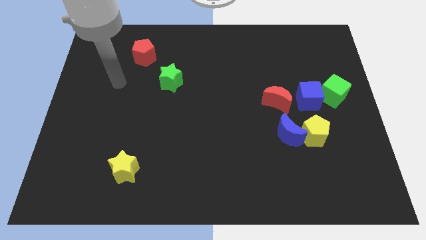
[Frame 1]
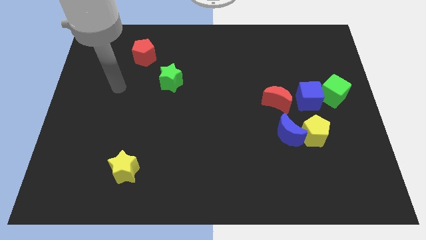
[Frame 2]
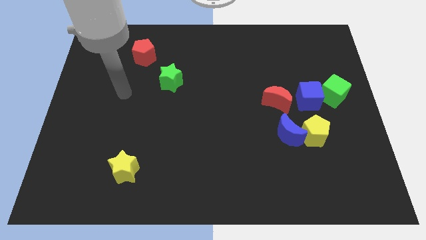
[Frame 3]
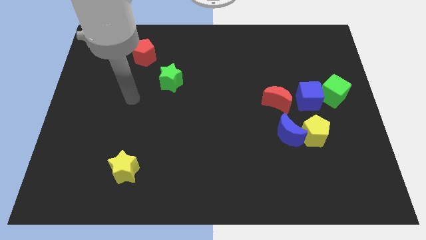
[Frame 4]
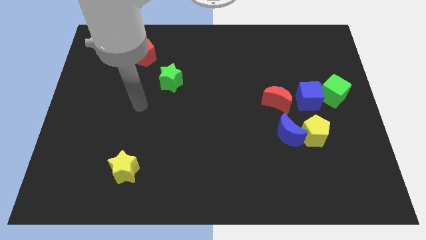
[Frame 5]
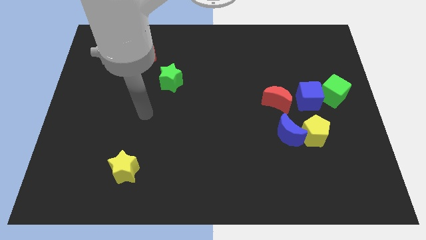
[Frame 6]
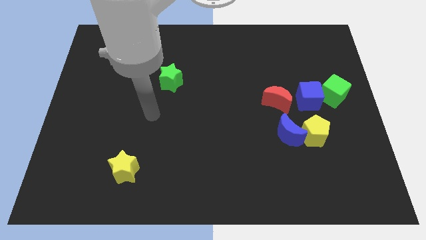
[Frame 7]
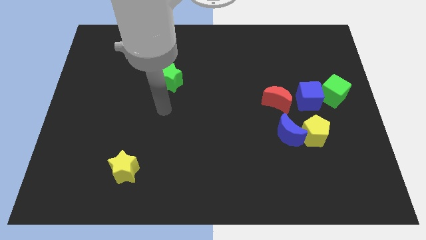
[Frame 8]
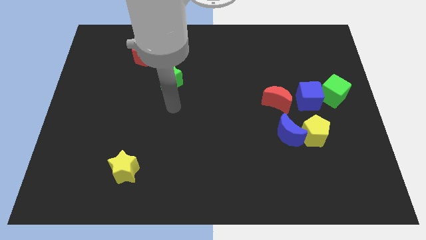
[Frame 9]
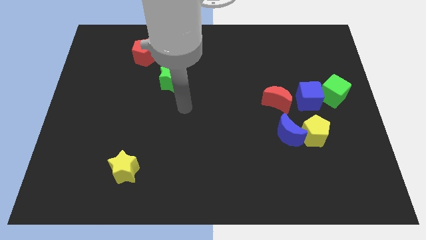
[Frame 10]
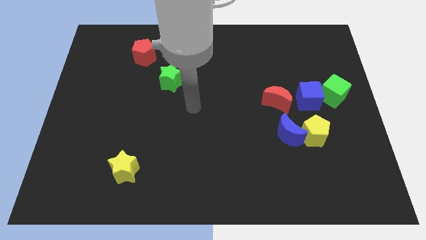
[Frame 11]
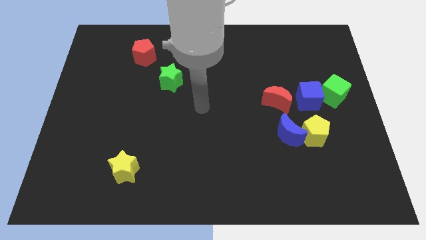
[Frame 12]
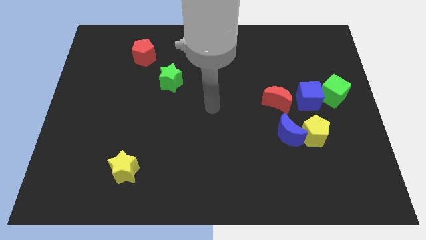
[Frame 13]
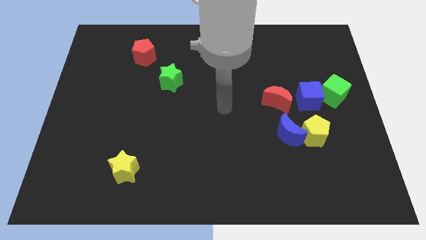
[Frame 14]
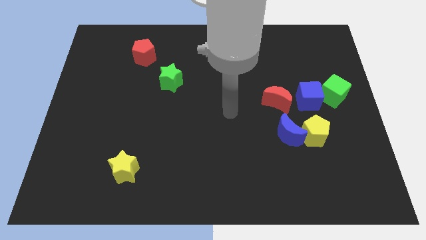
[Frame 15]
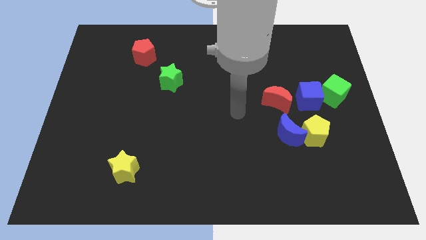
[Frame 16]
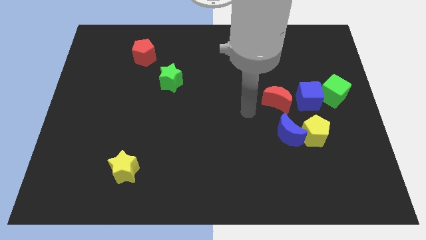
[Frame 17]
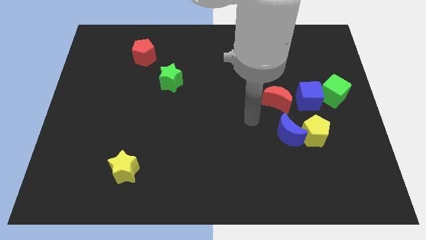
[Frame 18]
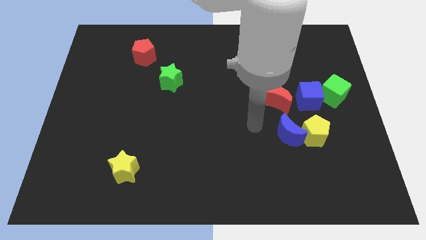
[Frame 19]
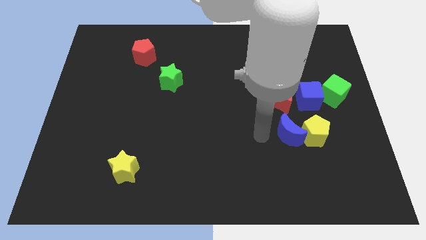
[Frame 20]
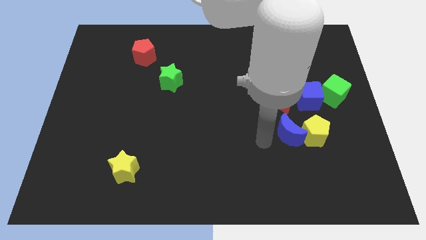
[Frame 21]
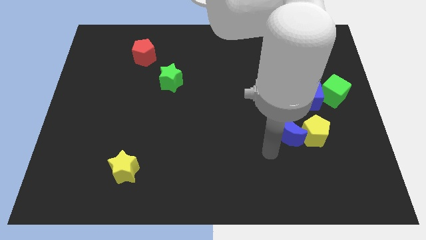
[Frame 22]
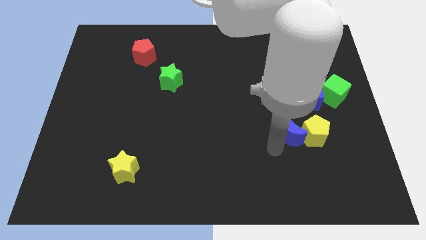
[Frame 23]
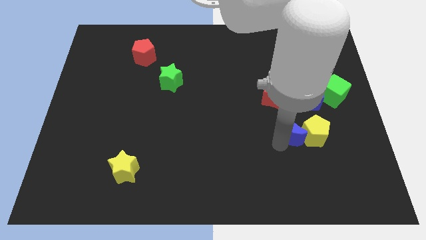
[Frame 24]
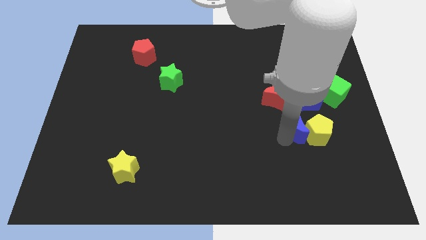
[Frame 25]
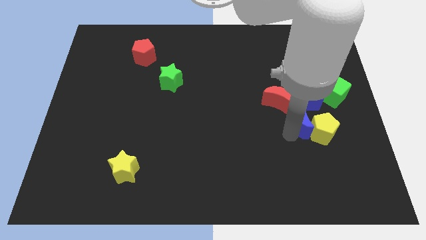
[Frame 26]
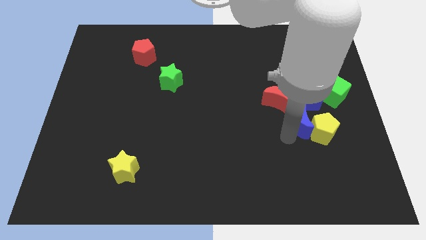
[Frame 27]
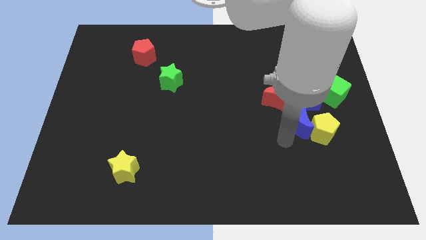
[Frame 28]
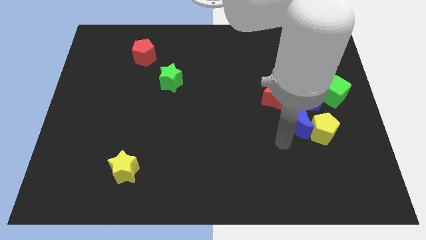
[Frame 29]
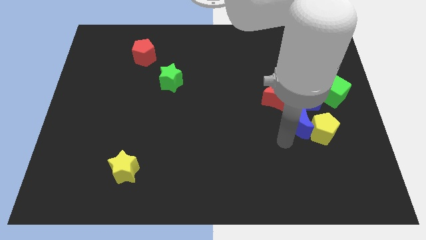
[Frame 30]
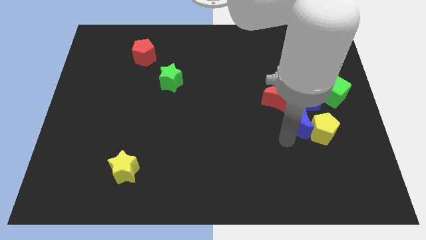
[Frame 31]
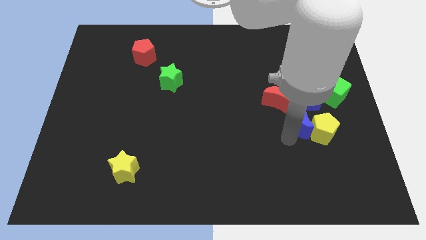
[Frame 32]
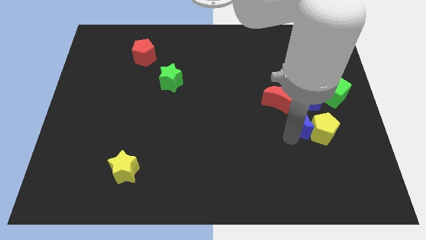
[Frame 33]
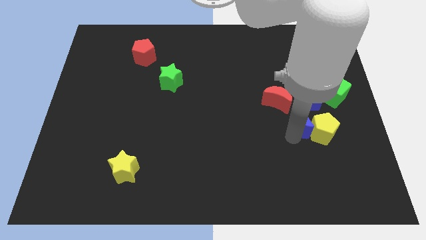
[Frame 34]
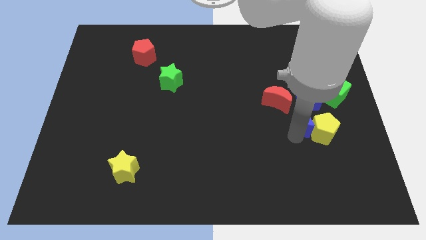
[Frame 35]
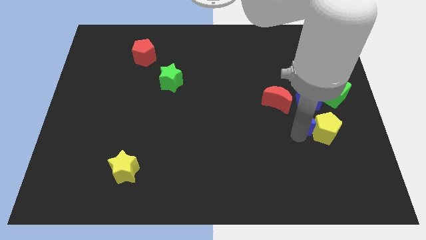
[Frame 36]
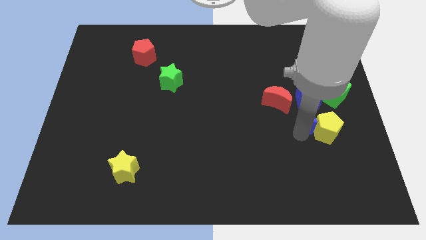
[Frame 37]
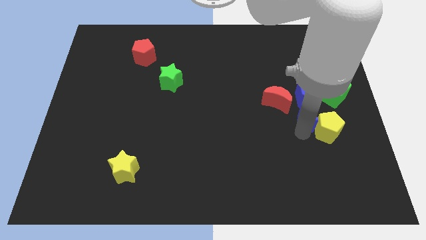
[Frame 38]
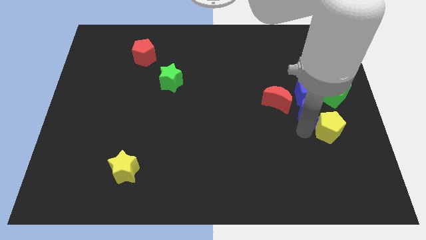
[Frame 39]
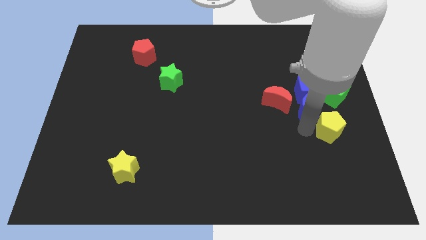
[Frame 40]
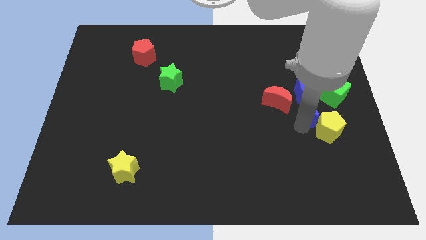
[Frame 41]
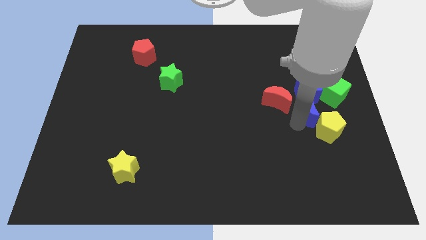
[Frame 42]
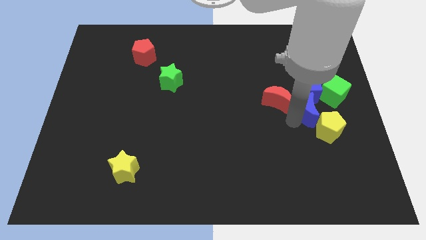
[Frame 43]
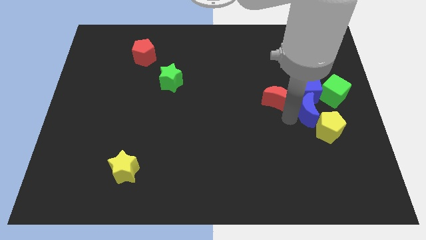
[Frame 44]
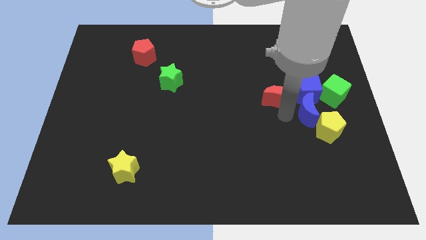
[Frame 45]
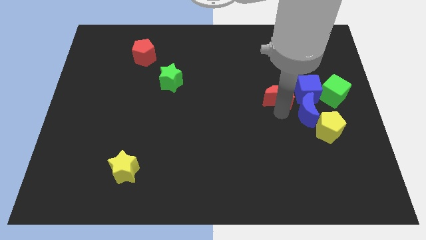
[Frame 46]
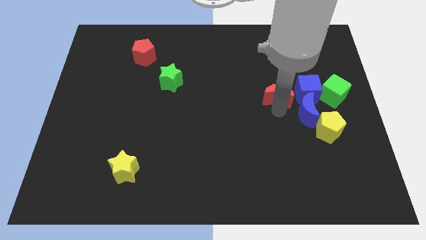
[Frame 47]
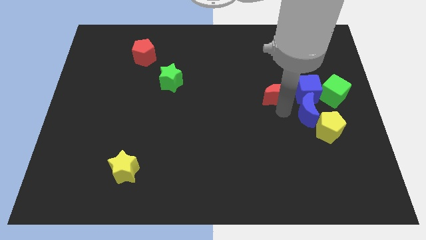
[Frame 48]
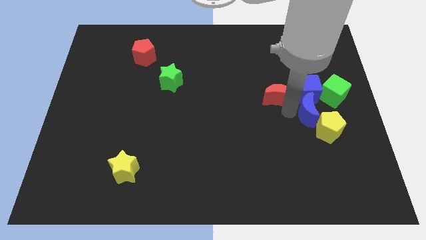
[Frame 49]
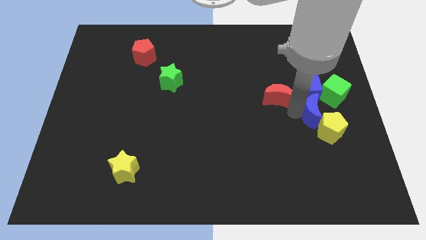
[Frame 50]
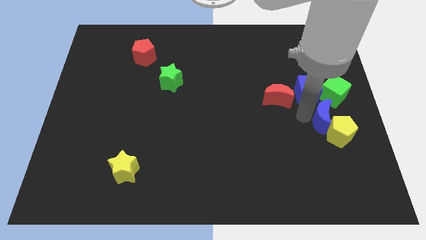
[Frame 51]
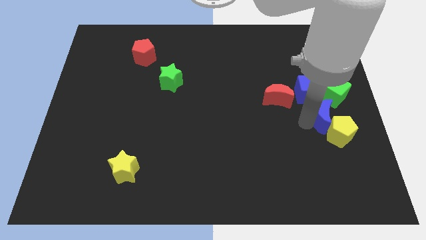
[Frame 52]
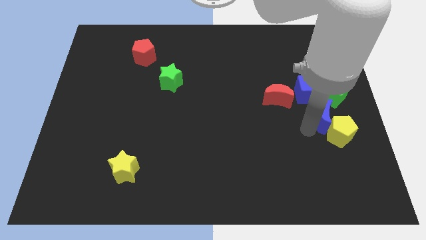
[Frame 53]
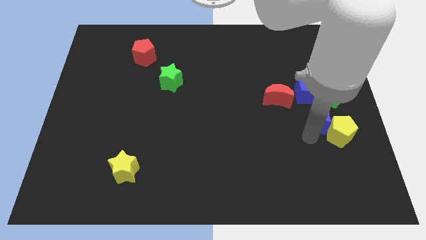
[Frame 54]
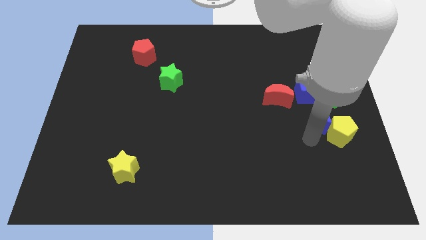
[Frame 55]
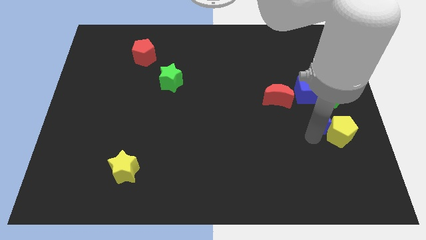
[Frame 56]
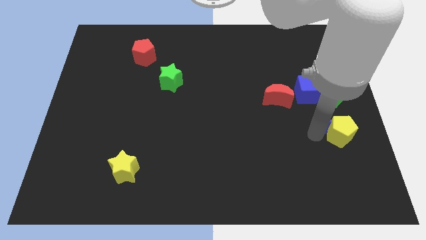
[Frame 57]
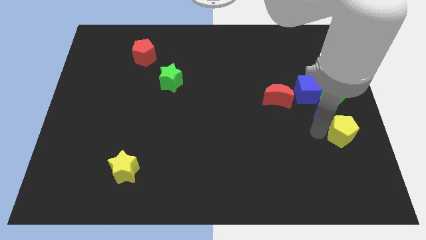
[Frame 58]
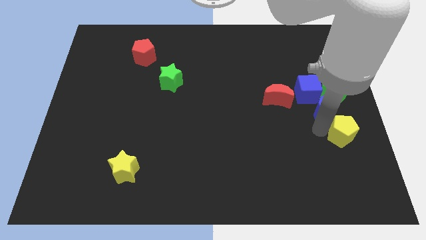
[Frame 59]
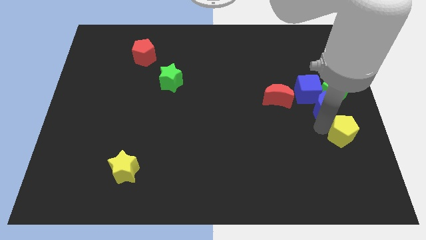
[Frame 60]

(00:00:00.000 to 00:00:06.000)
put the blue moon to the green cube
